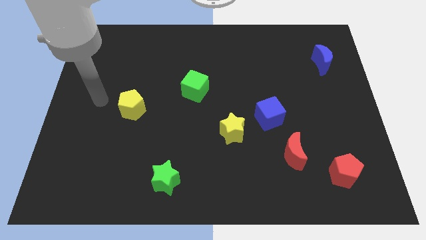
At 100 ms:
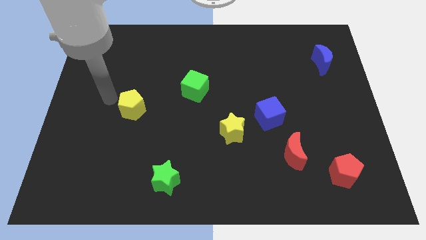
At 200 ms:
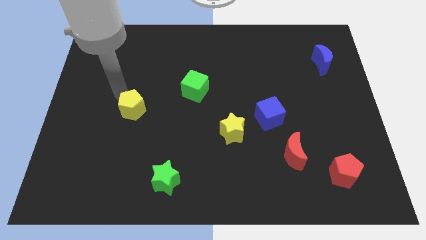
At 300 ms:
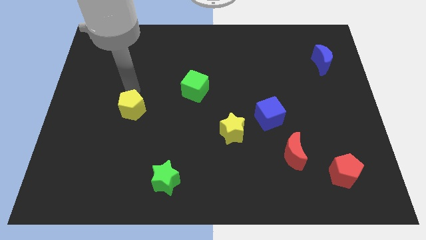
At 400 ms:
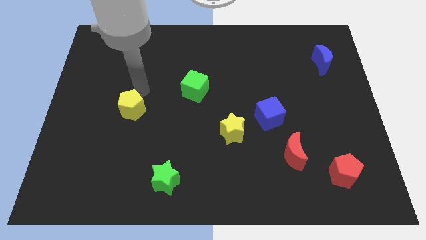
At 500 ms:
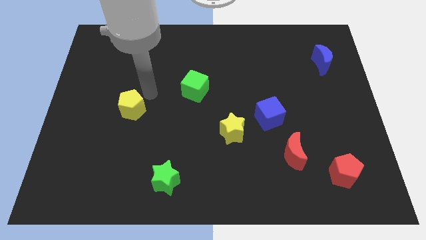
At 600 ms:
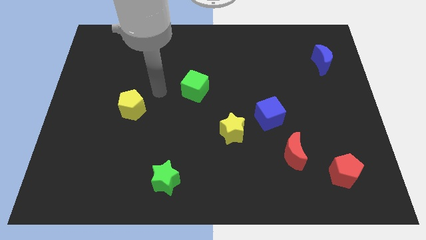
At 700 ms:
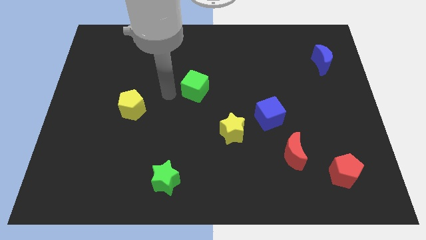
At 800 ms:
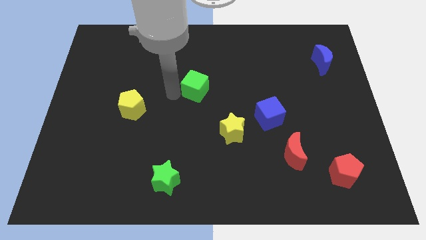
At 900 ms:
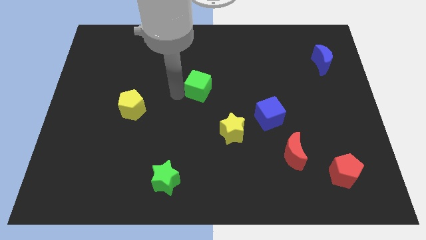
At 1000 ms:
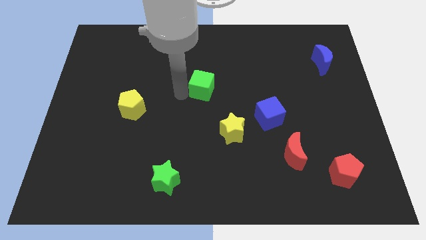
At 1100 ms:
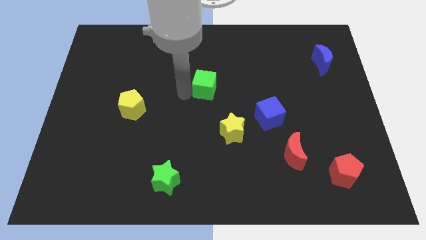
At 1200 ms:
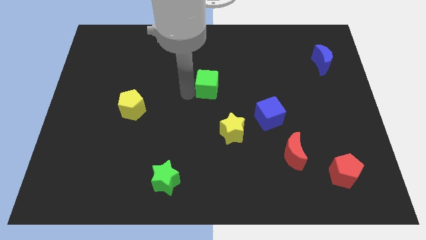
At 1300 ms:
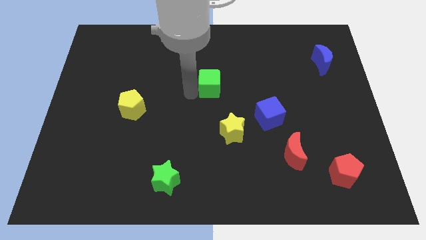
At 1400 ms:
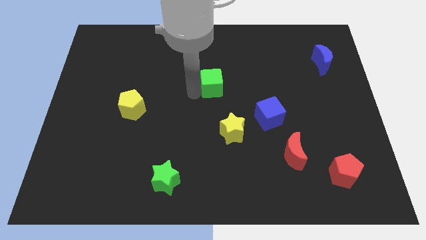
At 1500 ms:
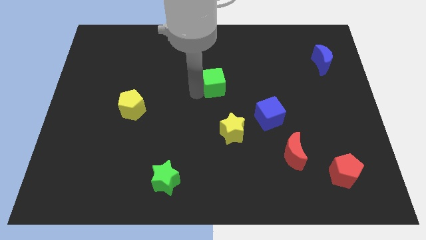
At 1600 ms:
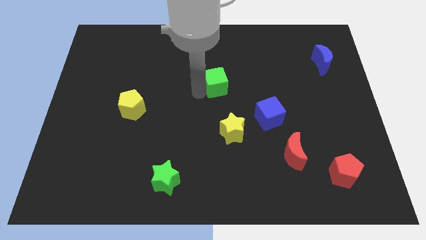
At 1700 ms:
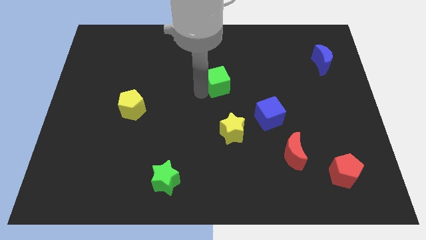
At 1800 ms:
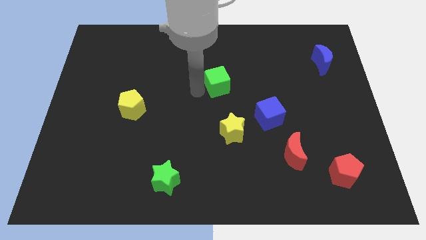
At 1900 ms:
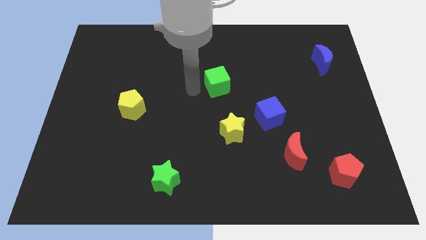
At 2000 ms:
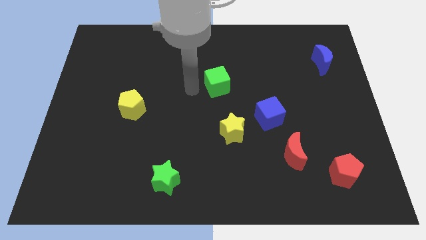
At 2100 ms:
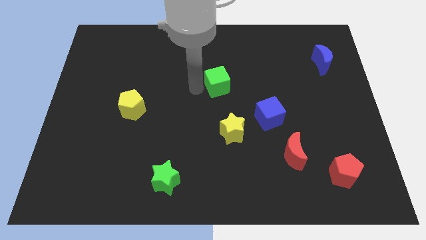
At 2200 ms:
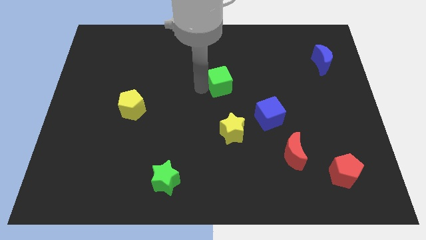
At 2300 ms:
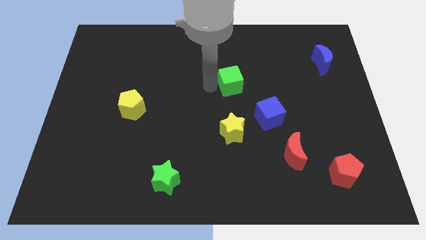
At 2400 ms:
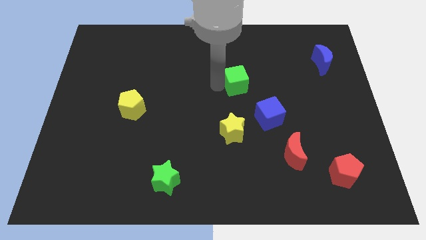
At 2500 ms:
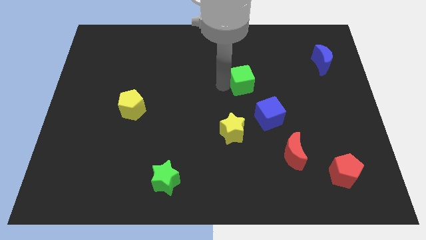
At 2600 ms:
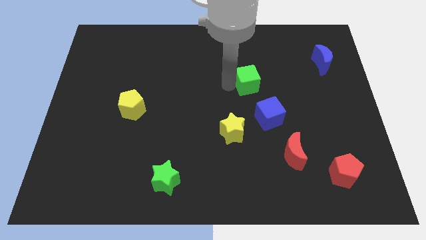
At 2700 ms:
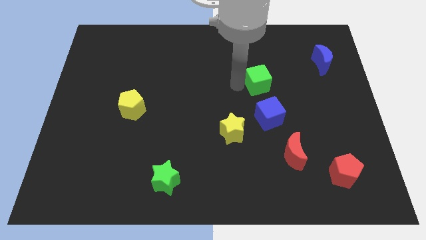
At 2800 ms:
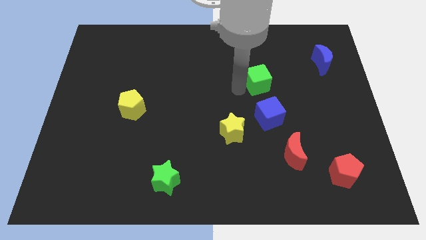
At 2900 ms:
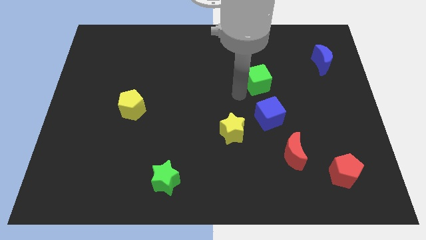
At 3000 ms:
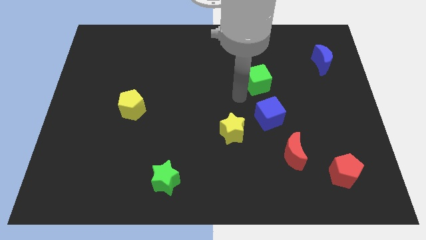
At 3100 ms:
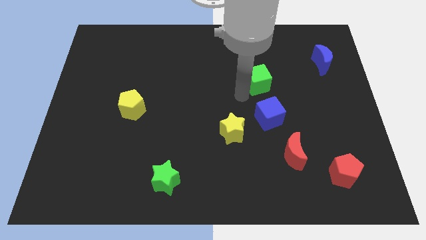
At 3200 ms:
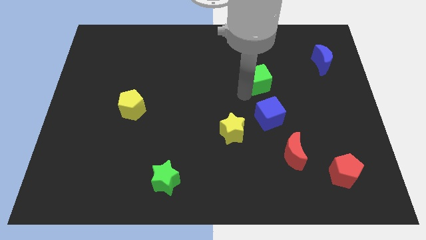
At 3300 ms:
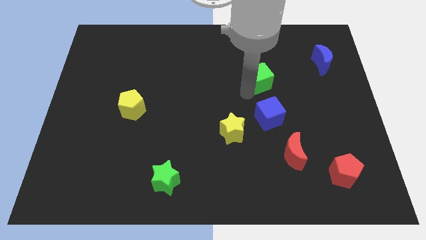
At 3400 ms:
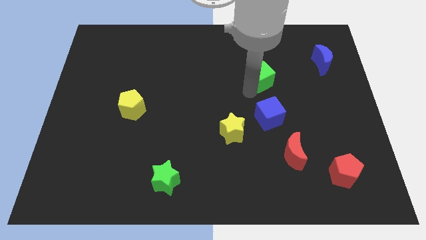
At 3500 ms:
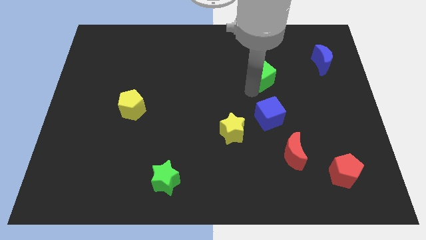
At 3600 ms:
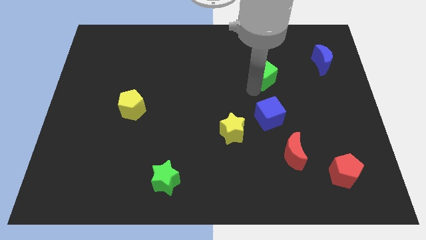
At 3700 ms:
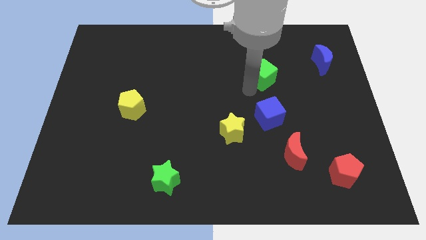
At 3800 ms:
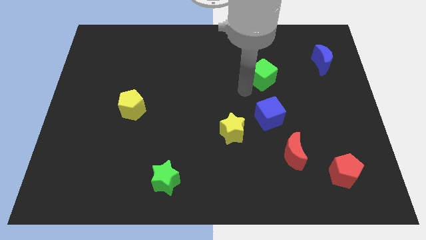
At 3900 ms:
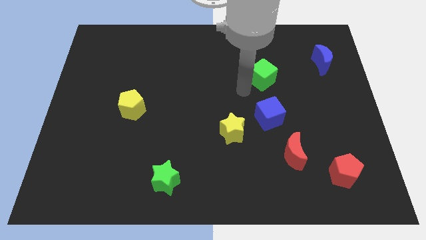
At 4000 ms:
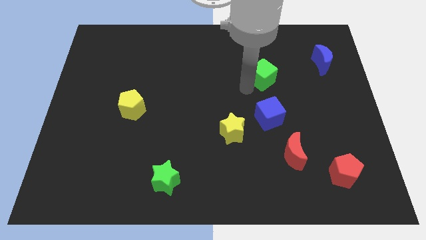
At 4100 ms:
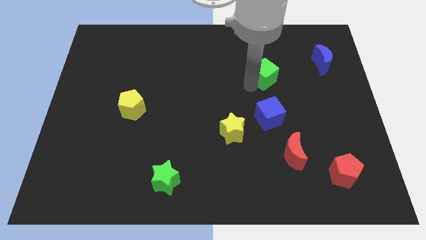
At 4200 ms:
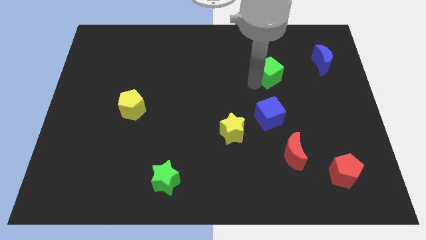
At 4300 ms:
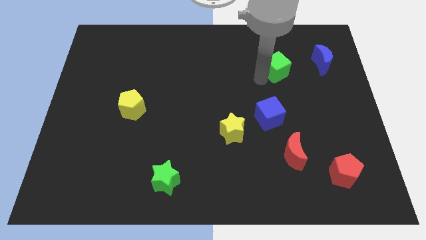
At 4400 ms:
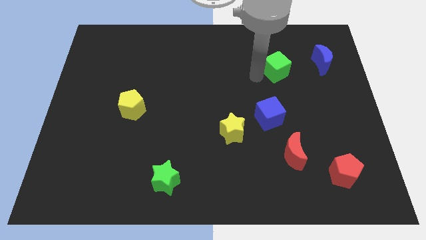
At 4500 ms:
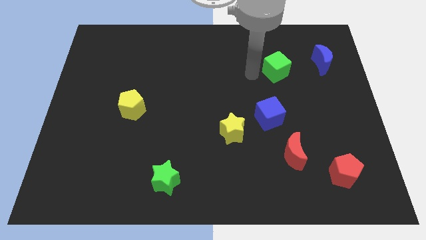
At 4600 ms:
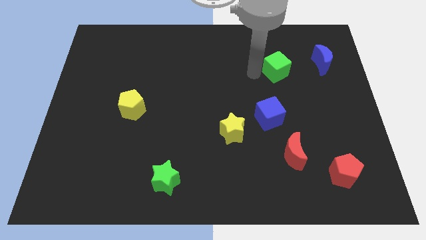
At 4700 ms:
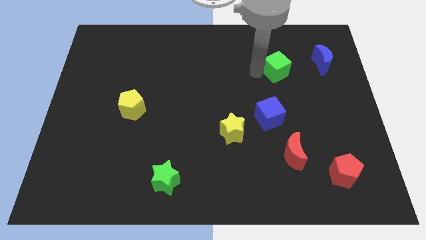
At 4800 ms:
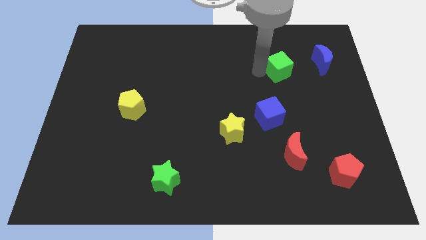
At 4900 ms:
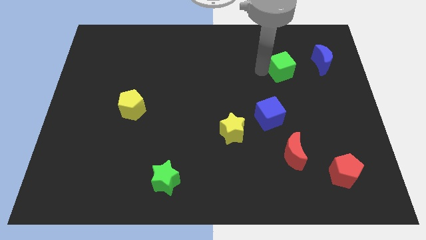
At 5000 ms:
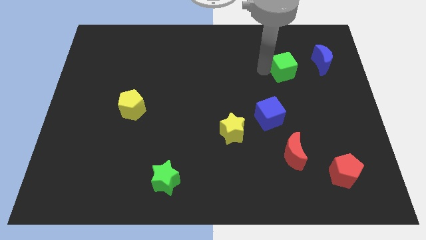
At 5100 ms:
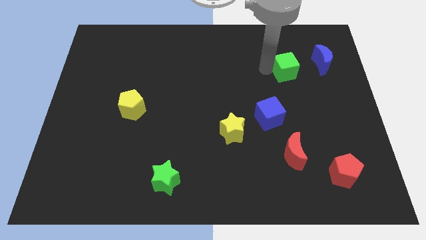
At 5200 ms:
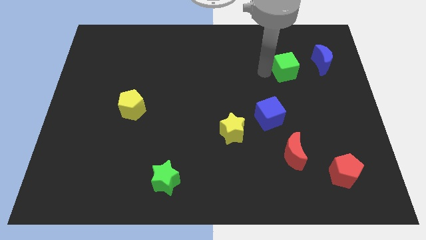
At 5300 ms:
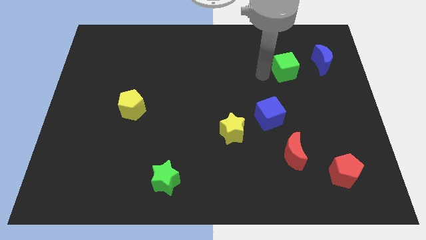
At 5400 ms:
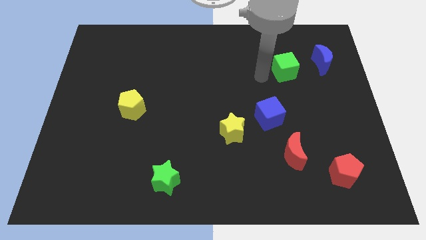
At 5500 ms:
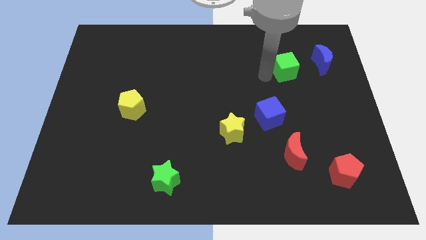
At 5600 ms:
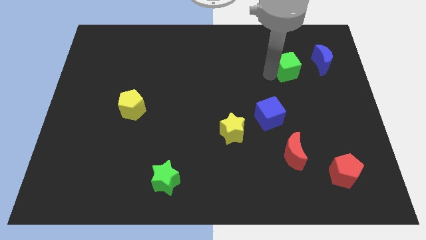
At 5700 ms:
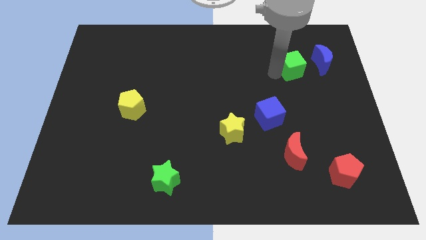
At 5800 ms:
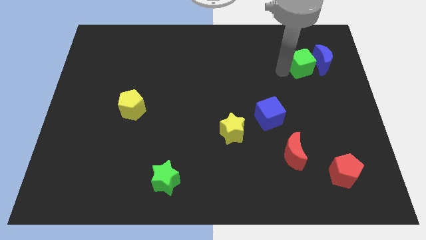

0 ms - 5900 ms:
move the green cube close to the blue moon

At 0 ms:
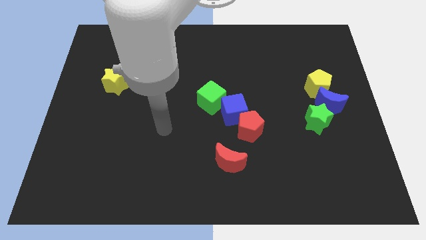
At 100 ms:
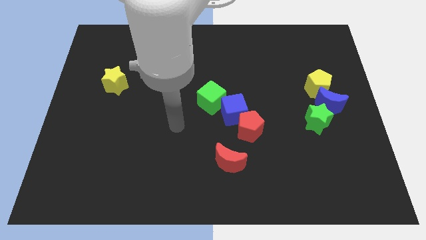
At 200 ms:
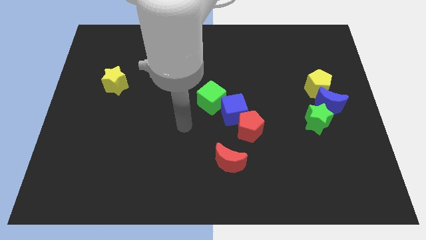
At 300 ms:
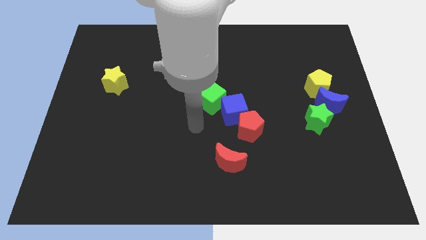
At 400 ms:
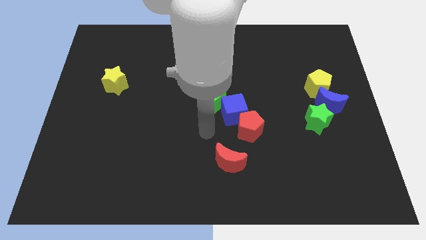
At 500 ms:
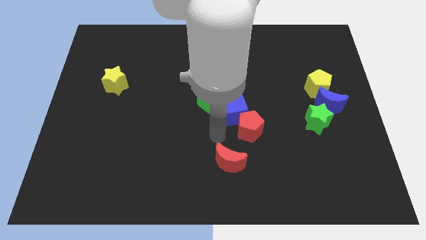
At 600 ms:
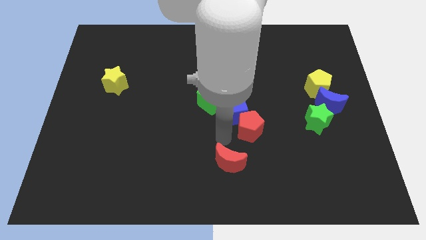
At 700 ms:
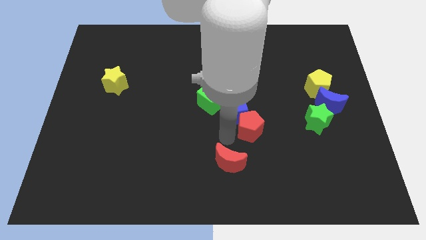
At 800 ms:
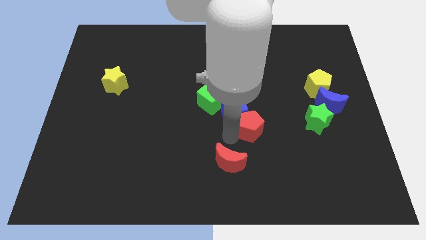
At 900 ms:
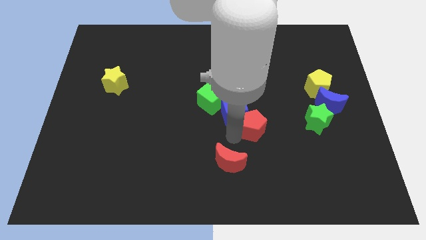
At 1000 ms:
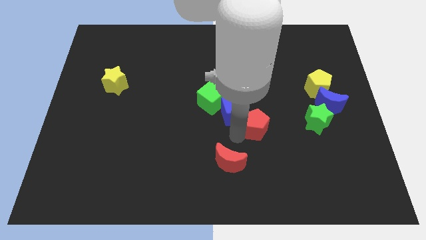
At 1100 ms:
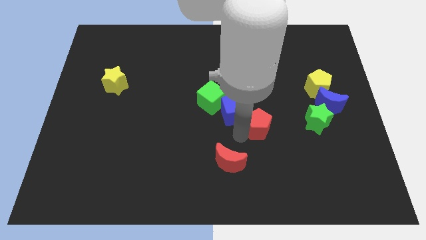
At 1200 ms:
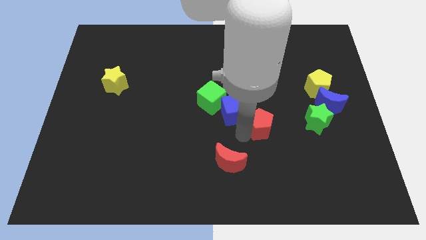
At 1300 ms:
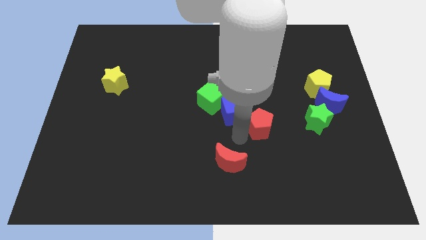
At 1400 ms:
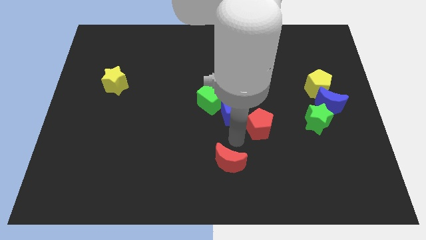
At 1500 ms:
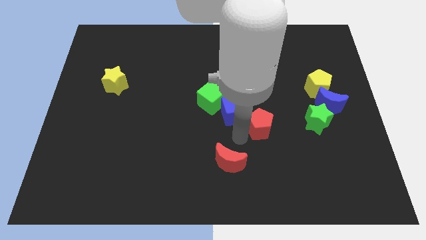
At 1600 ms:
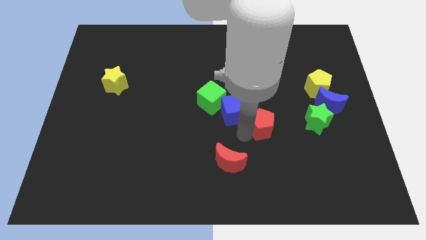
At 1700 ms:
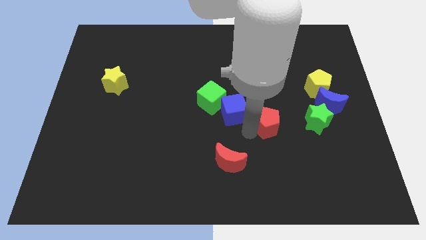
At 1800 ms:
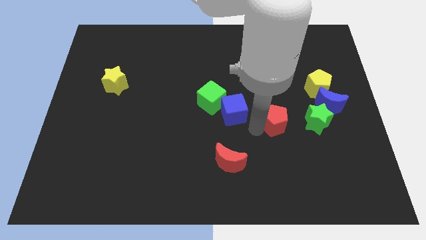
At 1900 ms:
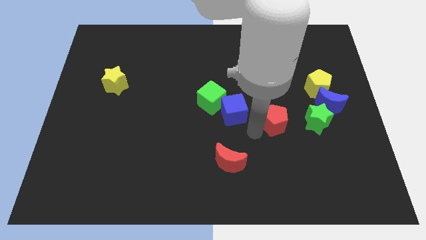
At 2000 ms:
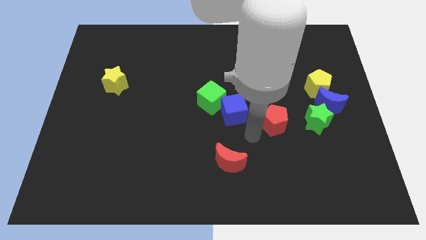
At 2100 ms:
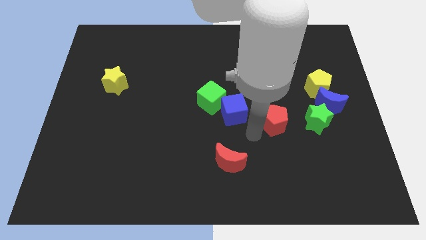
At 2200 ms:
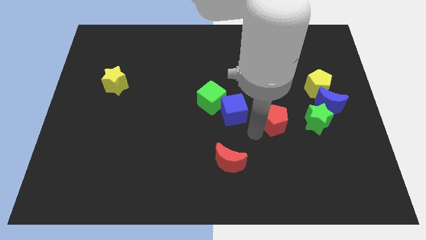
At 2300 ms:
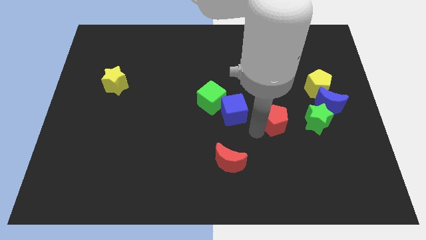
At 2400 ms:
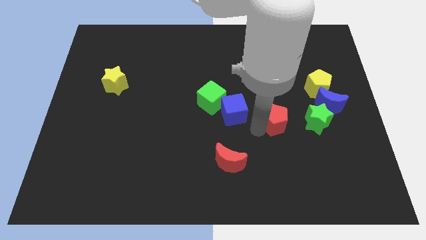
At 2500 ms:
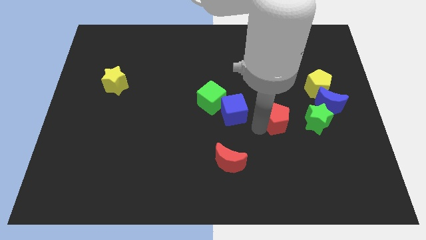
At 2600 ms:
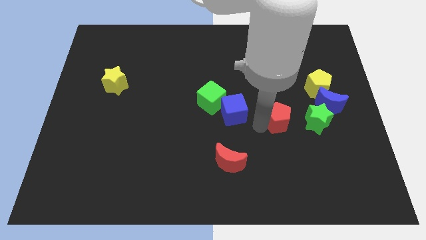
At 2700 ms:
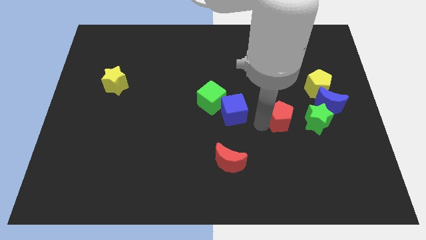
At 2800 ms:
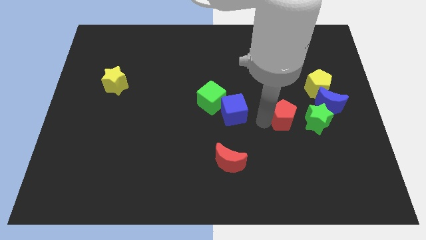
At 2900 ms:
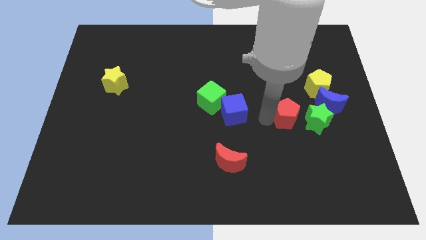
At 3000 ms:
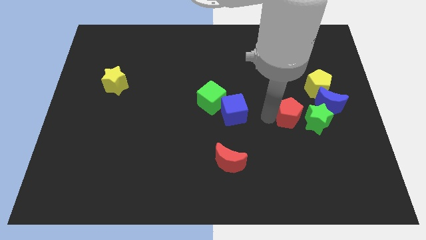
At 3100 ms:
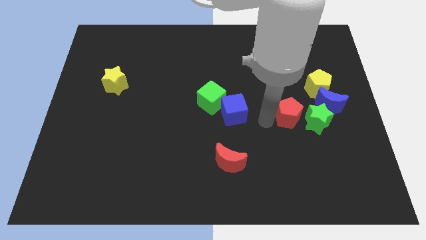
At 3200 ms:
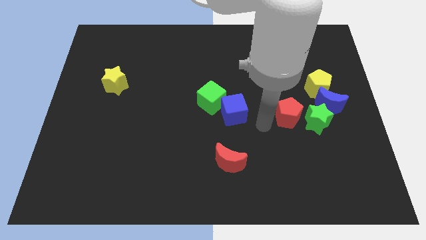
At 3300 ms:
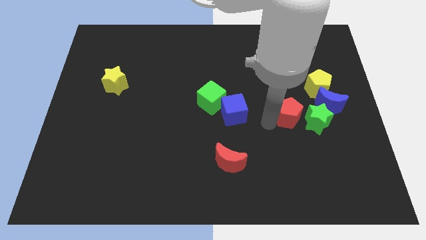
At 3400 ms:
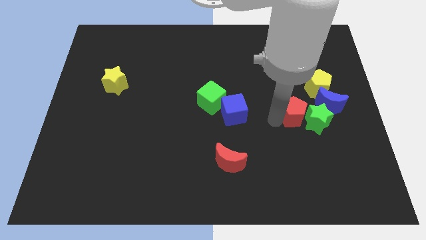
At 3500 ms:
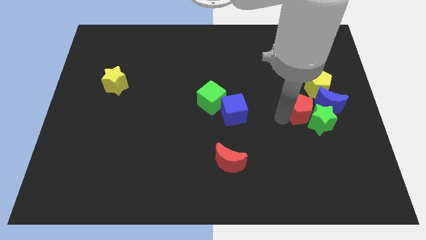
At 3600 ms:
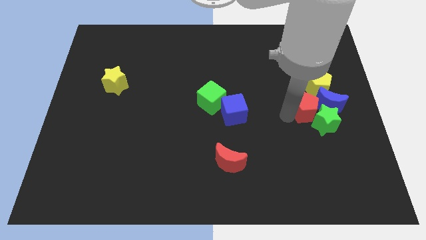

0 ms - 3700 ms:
put the red pentagon close to the blue moon
